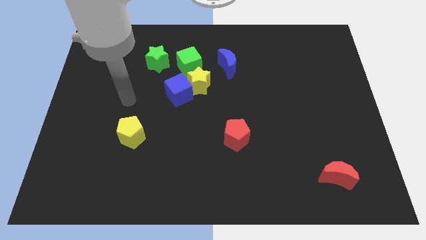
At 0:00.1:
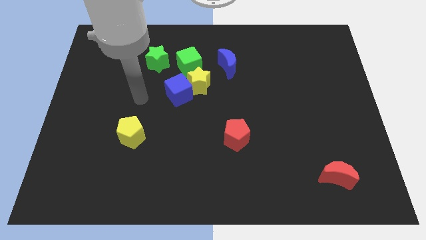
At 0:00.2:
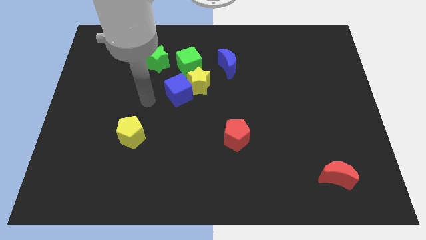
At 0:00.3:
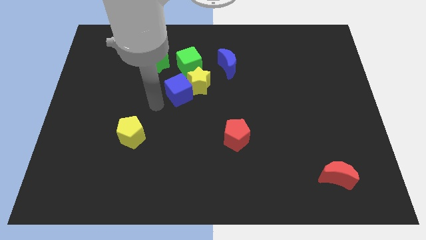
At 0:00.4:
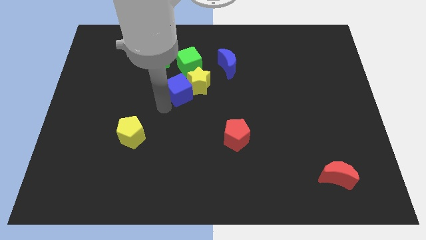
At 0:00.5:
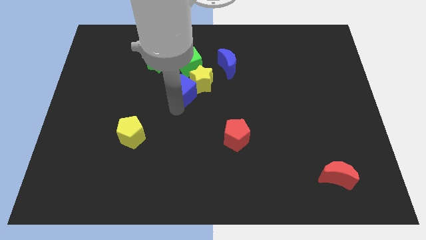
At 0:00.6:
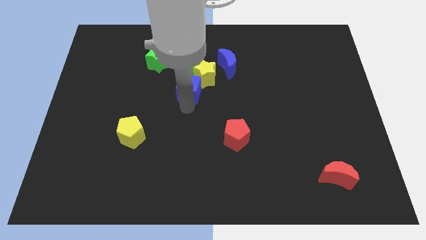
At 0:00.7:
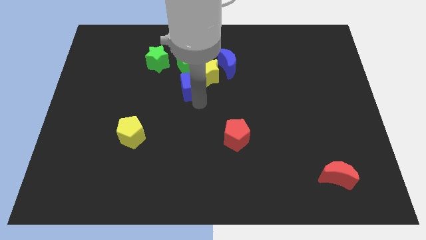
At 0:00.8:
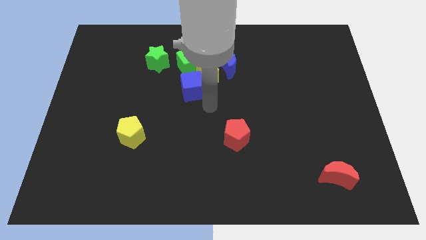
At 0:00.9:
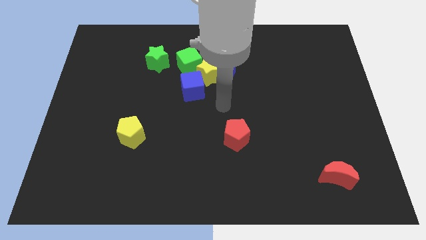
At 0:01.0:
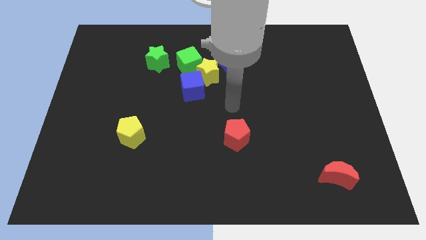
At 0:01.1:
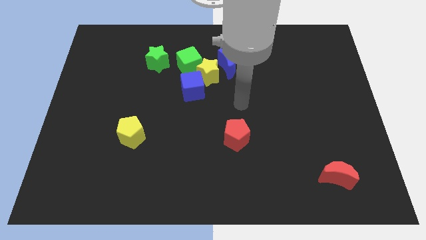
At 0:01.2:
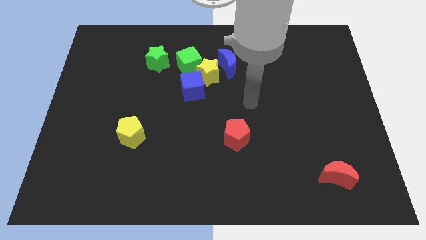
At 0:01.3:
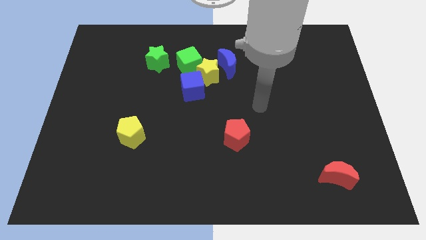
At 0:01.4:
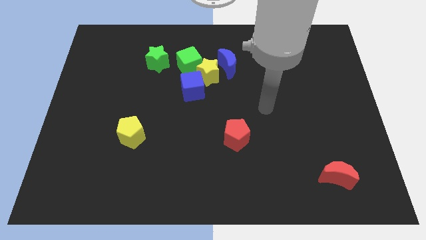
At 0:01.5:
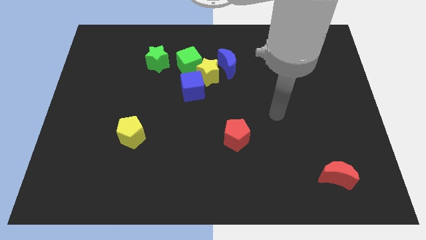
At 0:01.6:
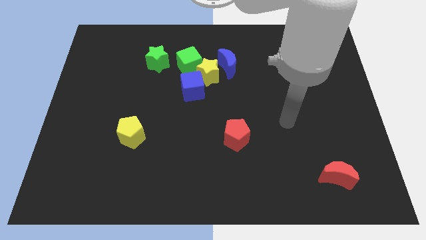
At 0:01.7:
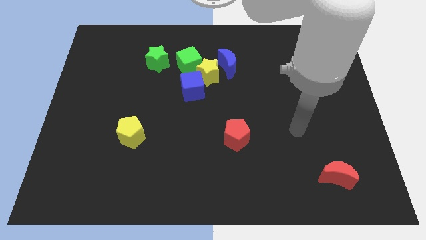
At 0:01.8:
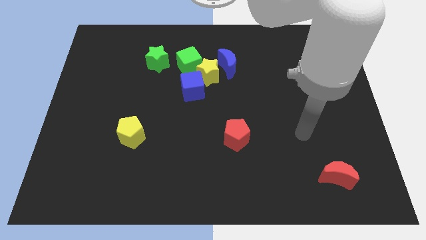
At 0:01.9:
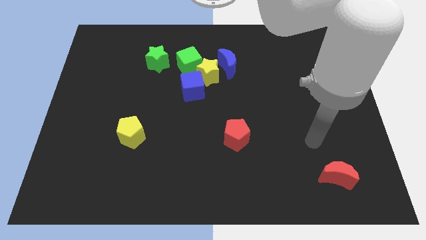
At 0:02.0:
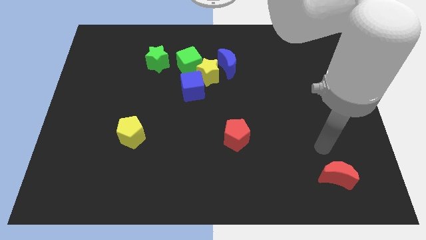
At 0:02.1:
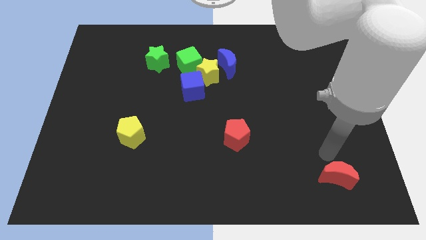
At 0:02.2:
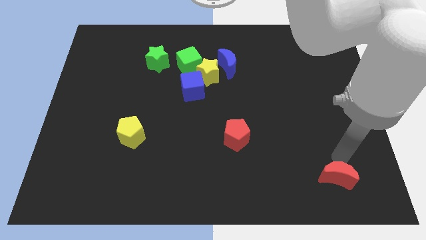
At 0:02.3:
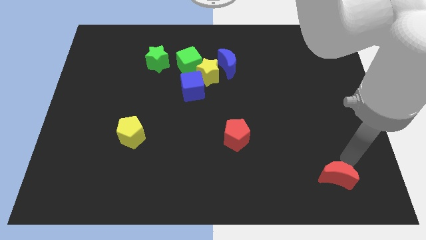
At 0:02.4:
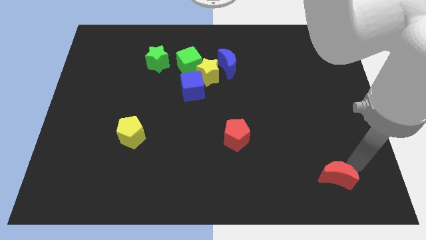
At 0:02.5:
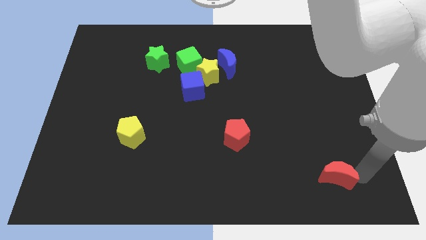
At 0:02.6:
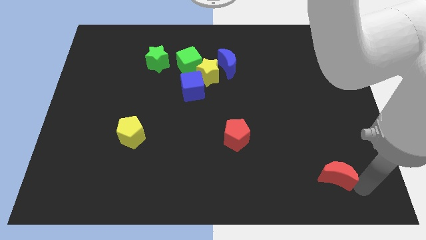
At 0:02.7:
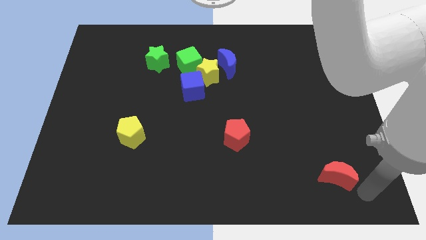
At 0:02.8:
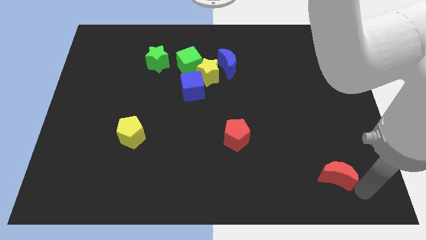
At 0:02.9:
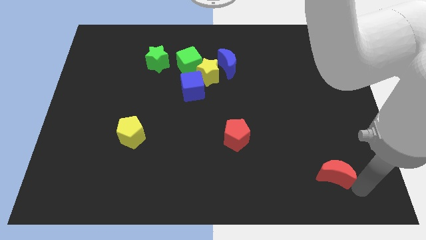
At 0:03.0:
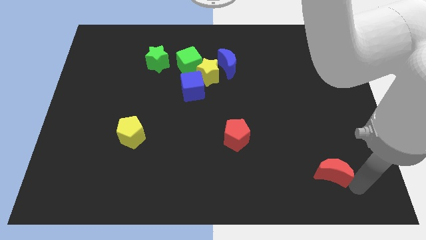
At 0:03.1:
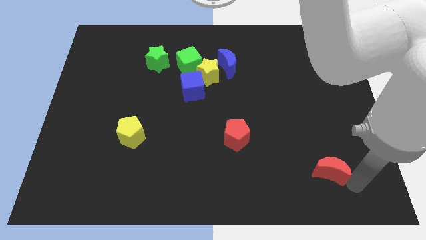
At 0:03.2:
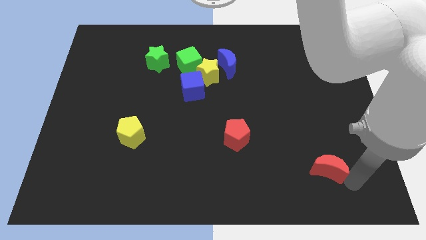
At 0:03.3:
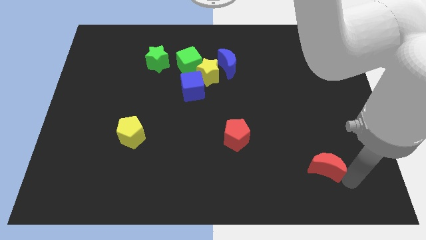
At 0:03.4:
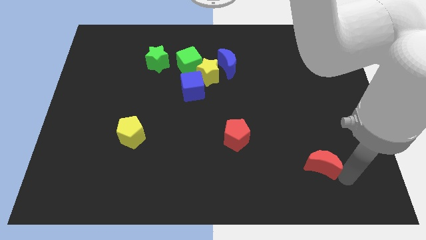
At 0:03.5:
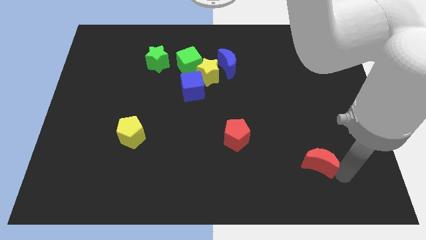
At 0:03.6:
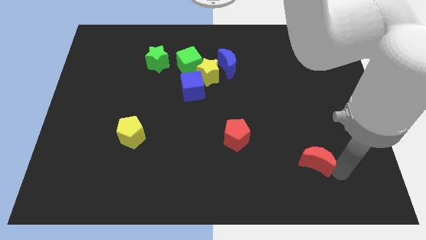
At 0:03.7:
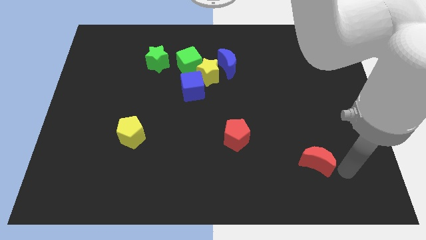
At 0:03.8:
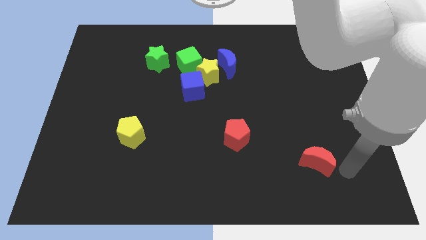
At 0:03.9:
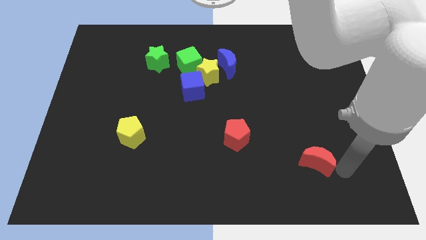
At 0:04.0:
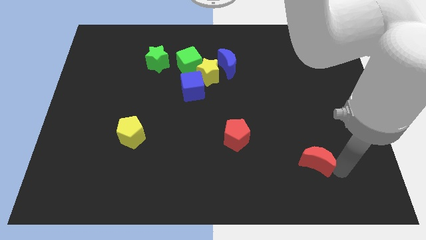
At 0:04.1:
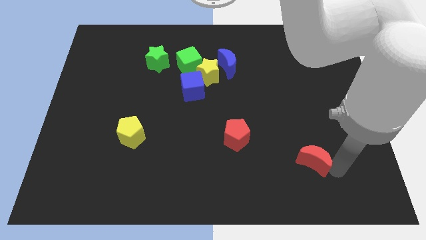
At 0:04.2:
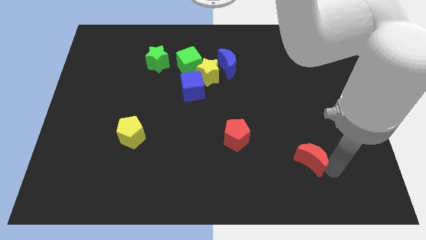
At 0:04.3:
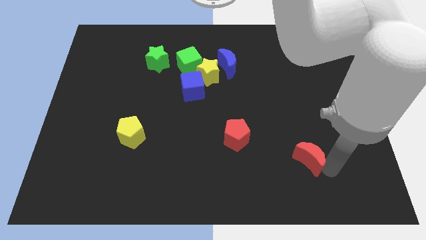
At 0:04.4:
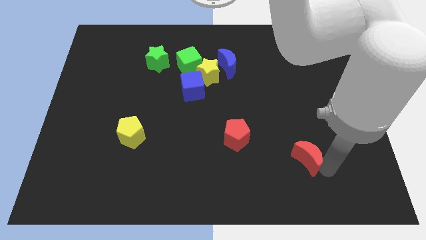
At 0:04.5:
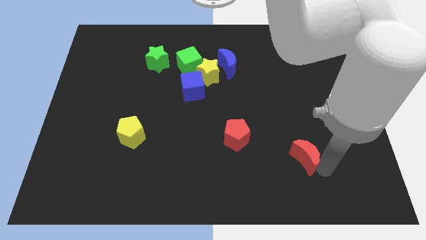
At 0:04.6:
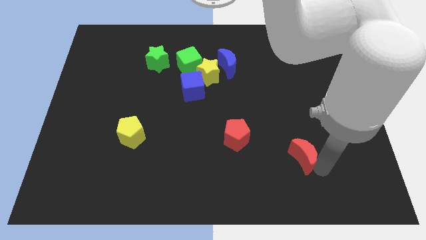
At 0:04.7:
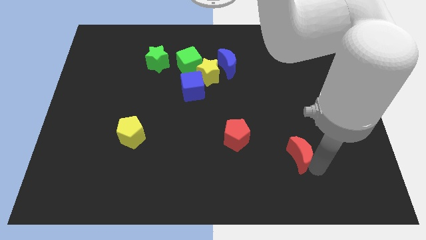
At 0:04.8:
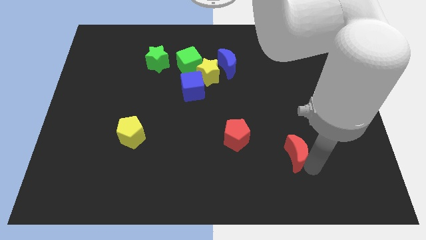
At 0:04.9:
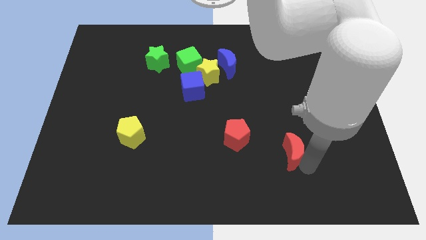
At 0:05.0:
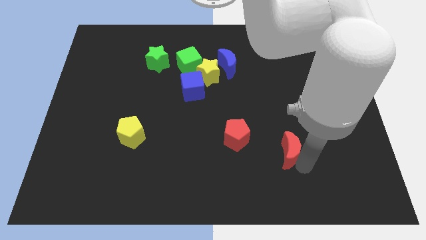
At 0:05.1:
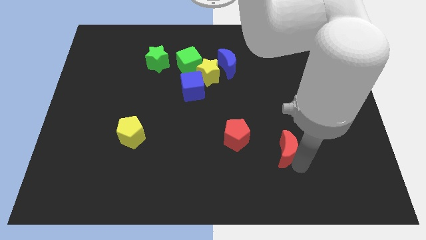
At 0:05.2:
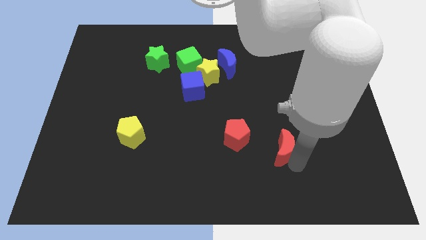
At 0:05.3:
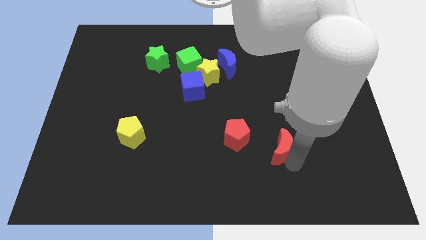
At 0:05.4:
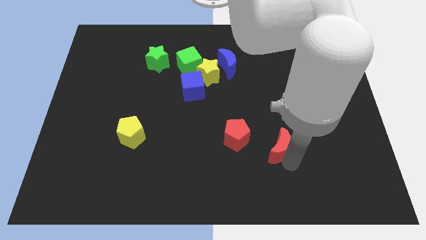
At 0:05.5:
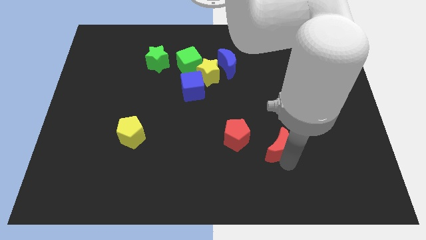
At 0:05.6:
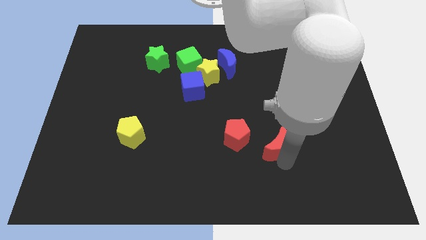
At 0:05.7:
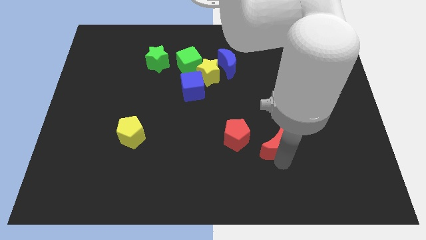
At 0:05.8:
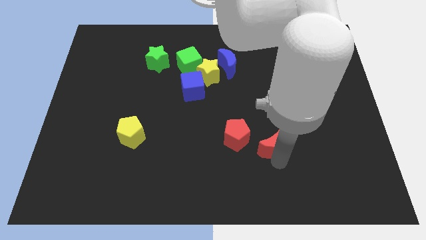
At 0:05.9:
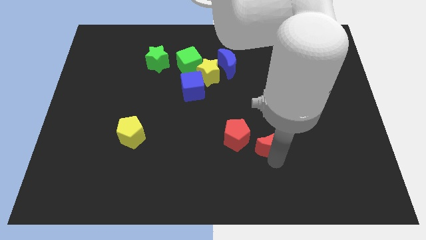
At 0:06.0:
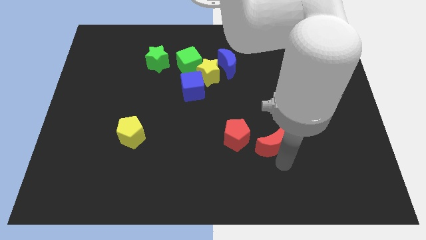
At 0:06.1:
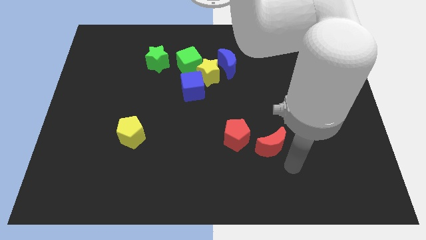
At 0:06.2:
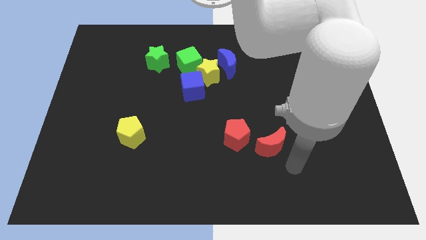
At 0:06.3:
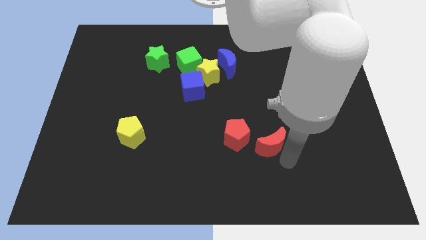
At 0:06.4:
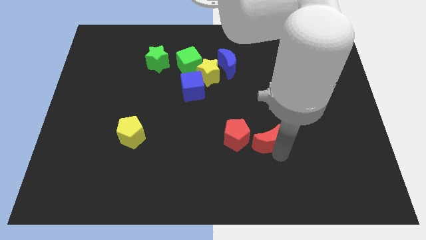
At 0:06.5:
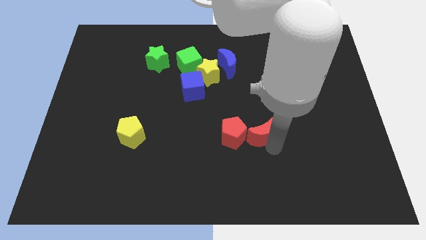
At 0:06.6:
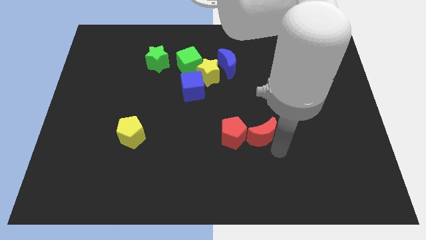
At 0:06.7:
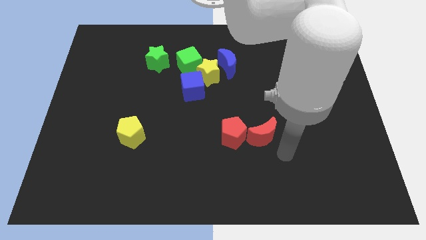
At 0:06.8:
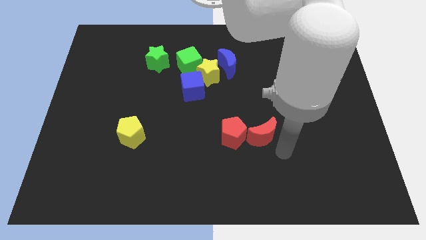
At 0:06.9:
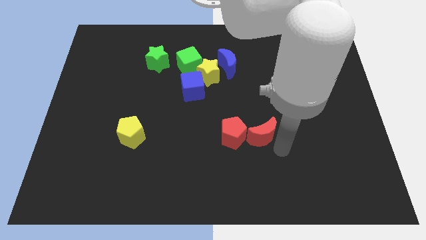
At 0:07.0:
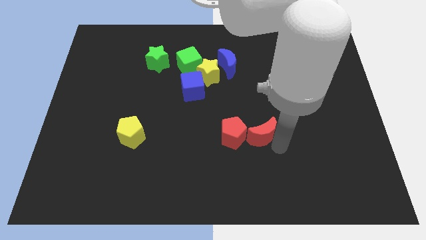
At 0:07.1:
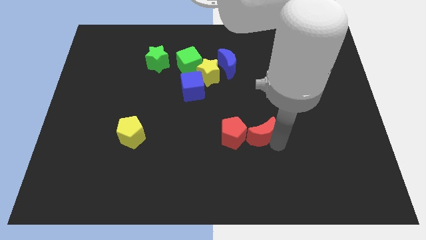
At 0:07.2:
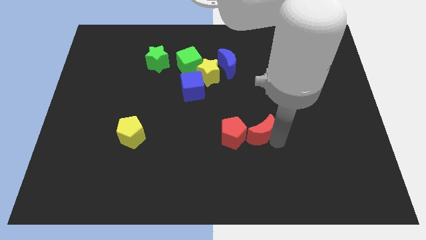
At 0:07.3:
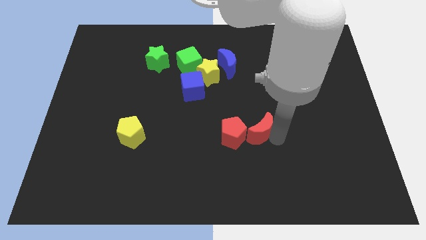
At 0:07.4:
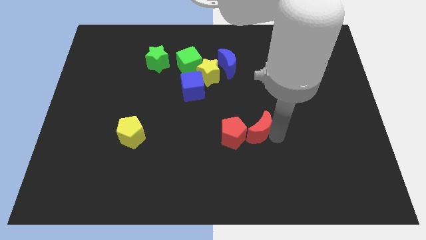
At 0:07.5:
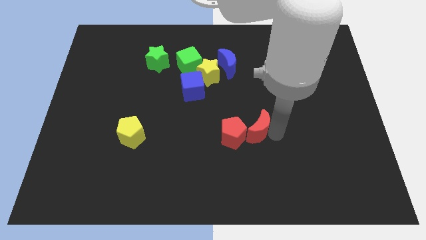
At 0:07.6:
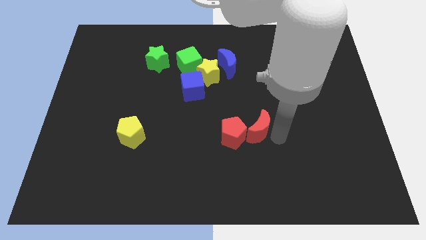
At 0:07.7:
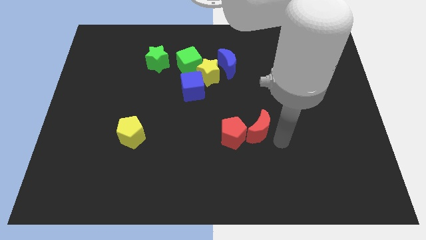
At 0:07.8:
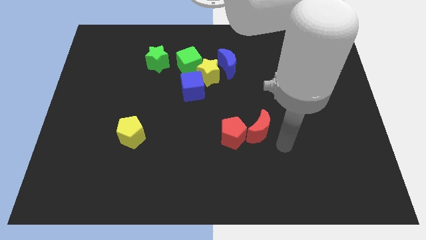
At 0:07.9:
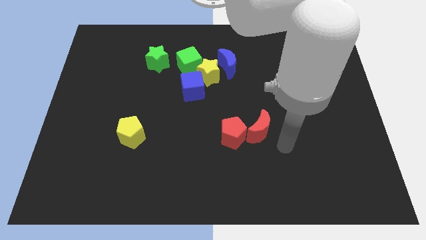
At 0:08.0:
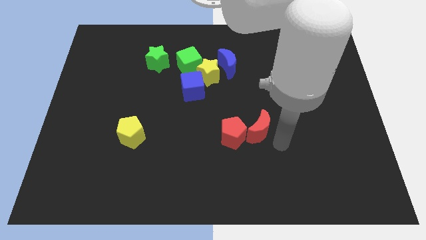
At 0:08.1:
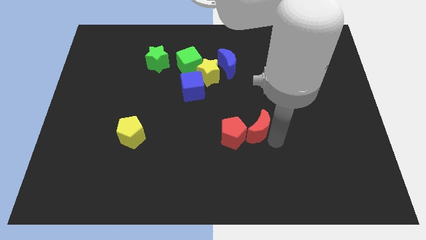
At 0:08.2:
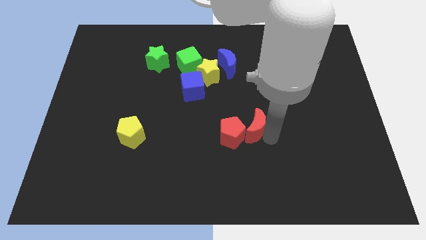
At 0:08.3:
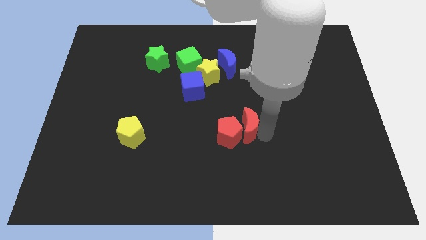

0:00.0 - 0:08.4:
push the red moon to the center of the board
